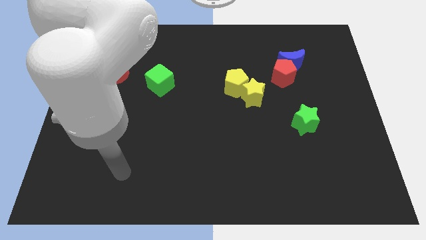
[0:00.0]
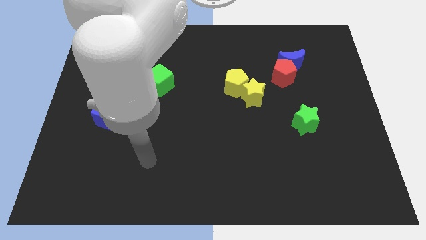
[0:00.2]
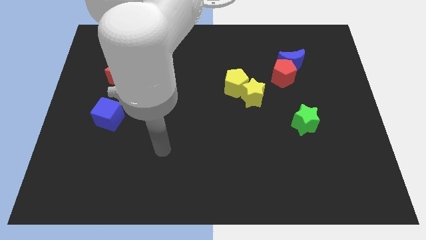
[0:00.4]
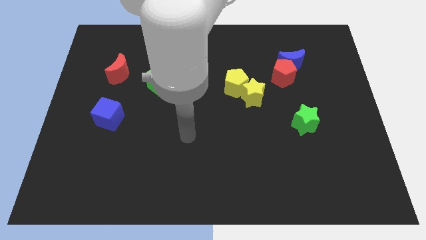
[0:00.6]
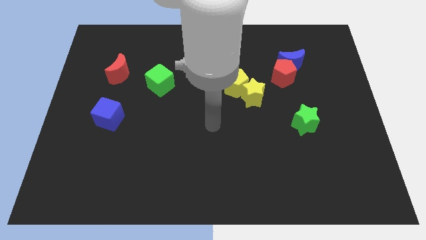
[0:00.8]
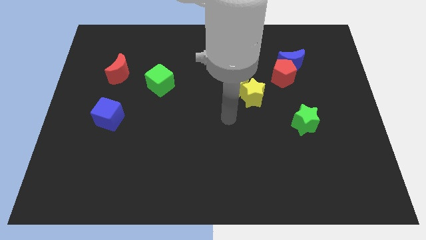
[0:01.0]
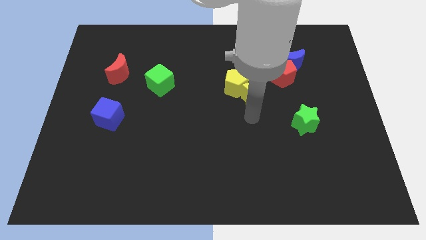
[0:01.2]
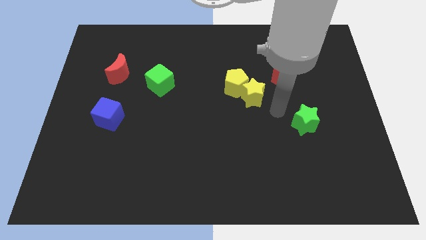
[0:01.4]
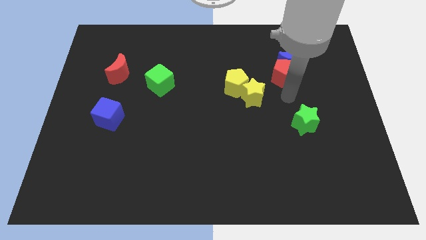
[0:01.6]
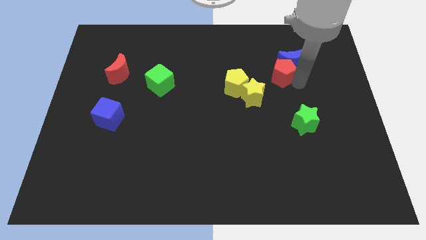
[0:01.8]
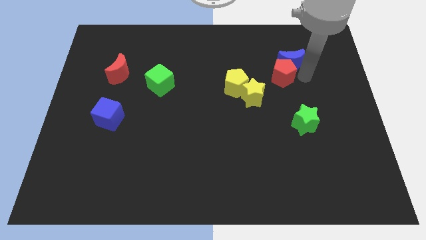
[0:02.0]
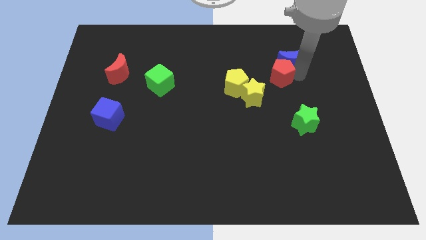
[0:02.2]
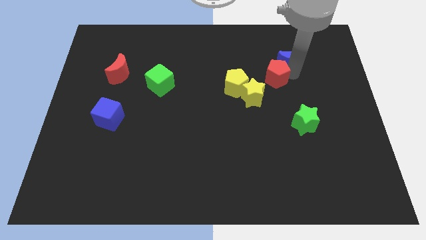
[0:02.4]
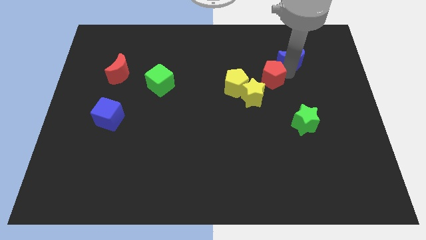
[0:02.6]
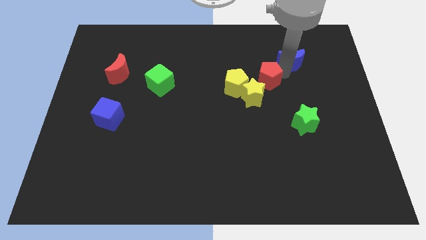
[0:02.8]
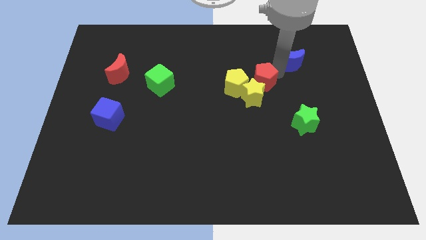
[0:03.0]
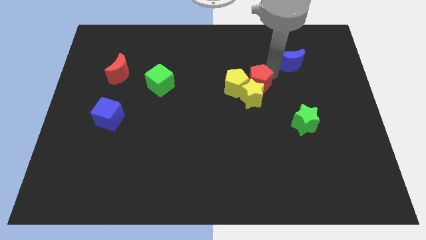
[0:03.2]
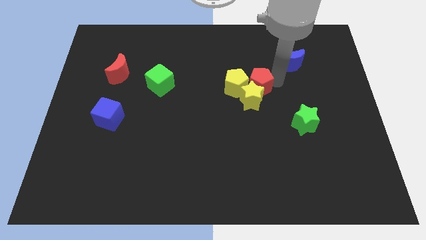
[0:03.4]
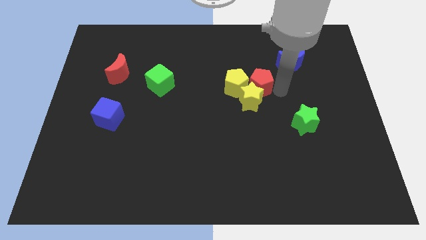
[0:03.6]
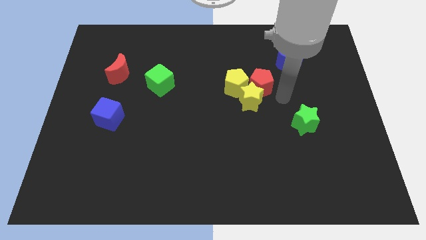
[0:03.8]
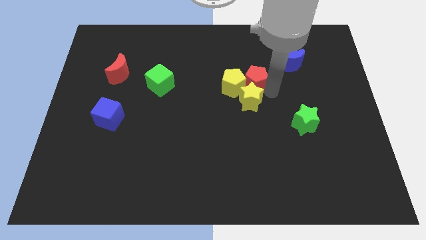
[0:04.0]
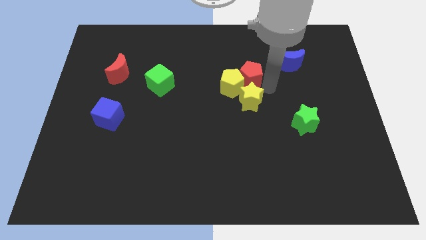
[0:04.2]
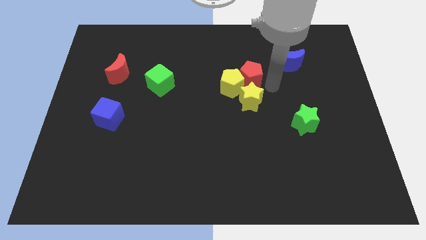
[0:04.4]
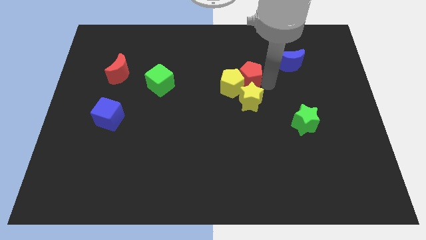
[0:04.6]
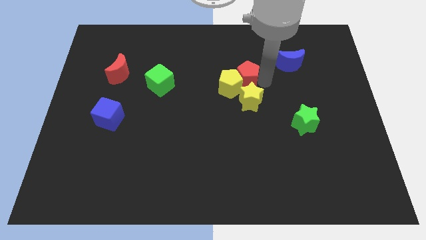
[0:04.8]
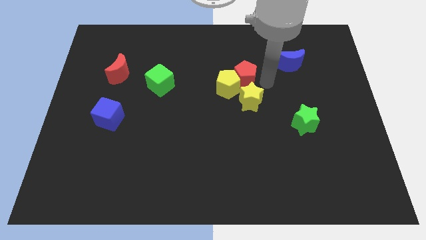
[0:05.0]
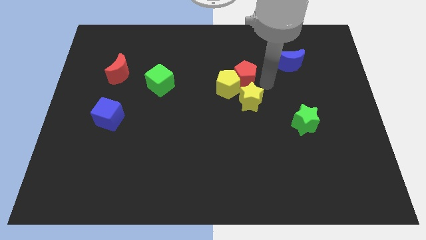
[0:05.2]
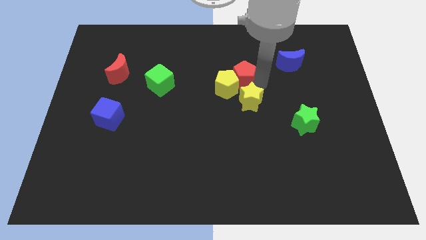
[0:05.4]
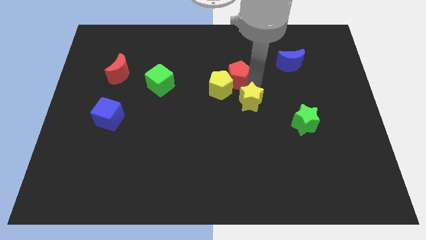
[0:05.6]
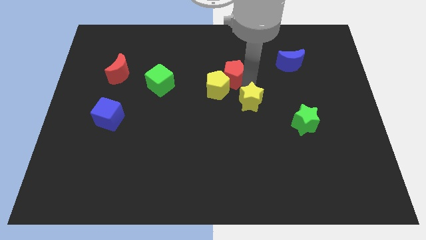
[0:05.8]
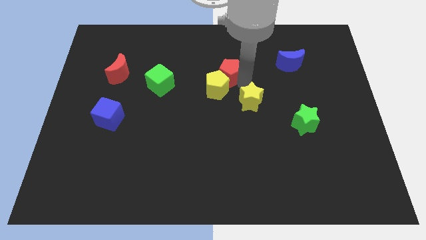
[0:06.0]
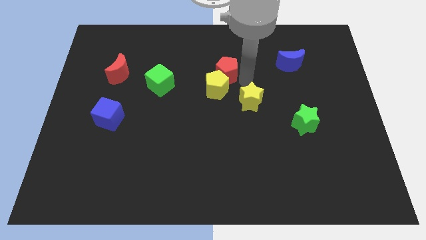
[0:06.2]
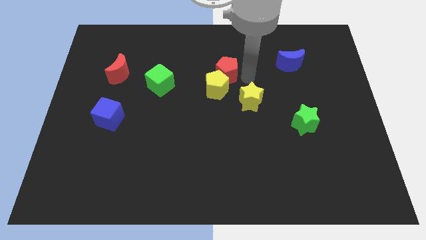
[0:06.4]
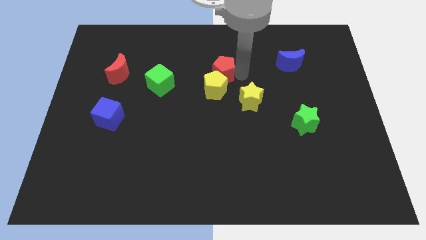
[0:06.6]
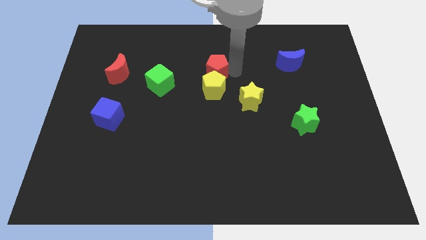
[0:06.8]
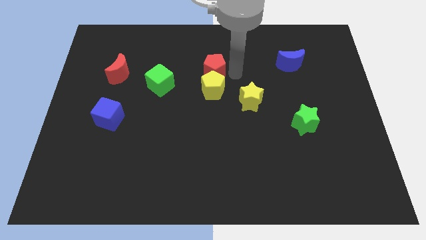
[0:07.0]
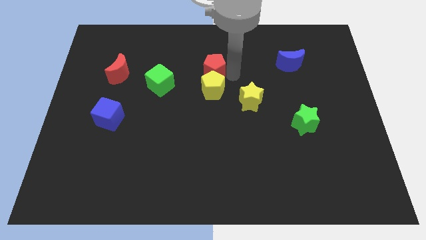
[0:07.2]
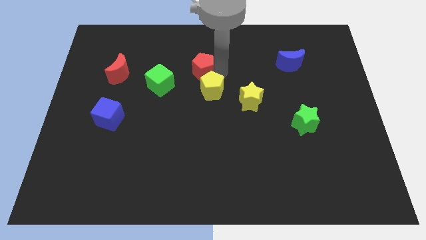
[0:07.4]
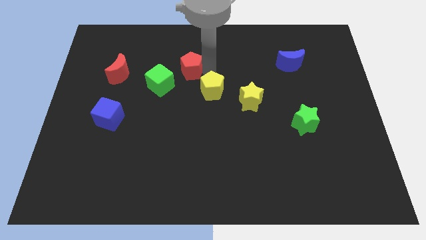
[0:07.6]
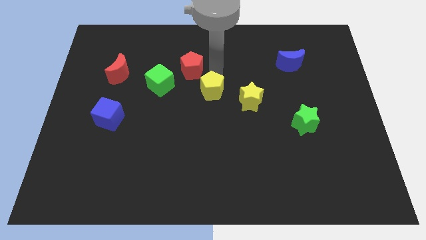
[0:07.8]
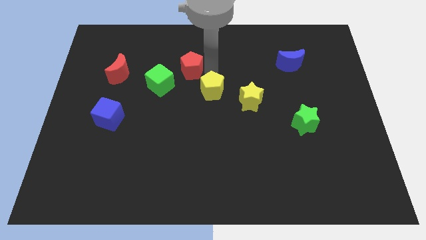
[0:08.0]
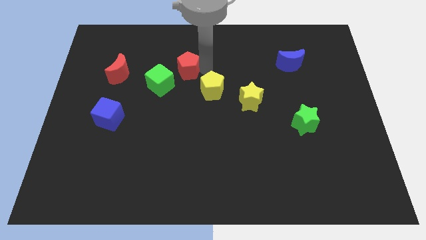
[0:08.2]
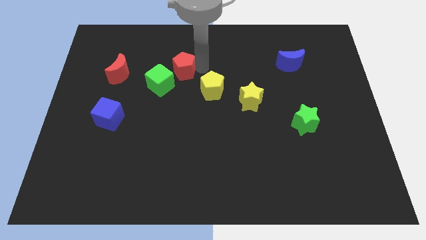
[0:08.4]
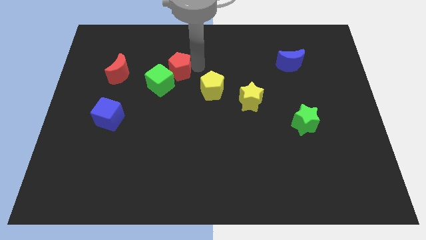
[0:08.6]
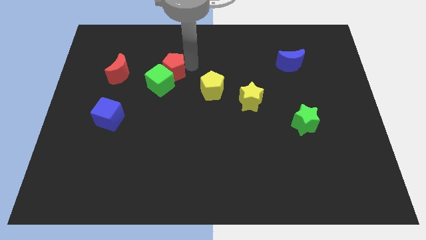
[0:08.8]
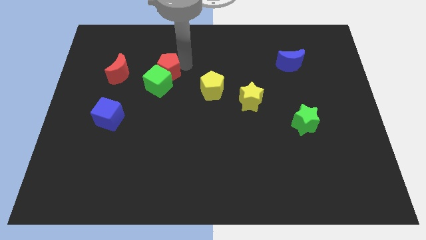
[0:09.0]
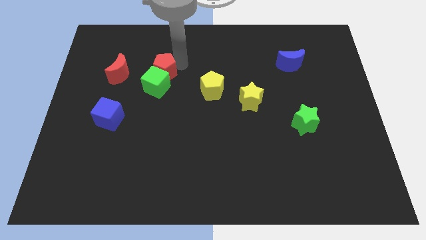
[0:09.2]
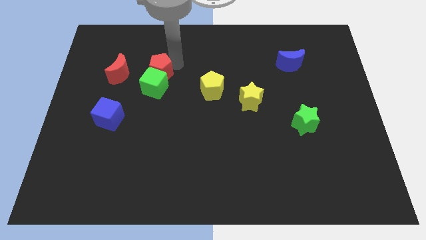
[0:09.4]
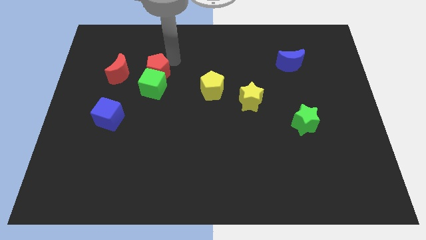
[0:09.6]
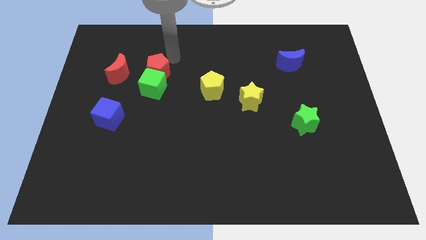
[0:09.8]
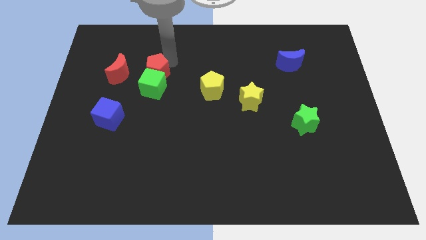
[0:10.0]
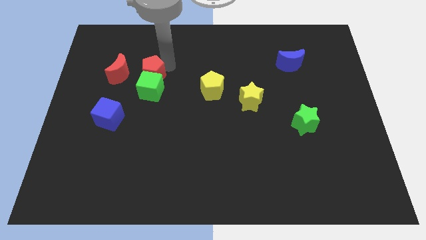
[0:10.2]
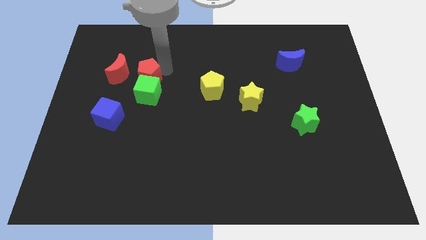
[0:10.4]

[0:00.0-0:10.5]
push the red pentagon diagonally down and to the right of the red moon

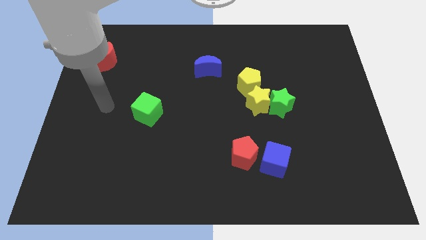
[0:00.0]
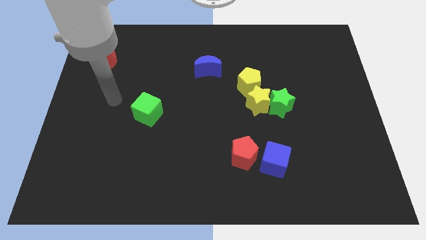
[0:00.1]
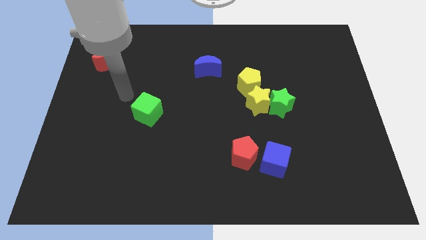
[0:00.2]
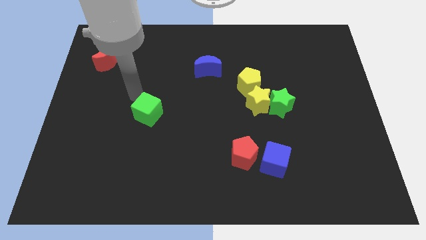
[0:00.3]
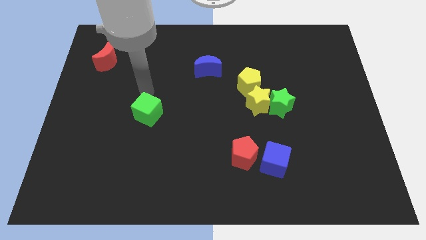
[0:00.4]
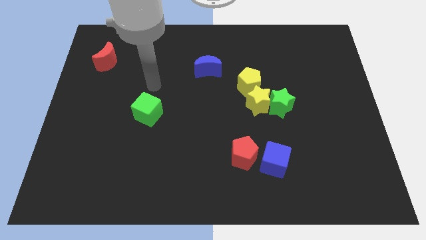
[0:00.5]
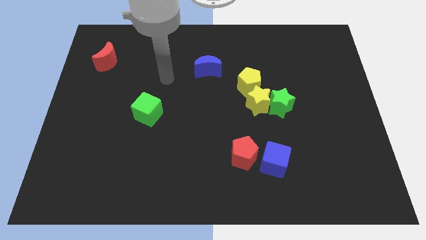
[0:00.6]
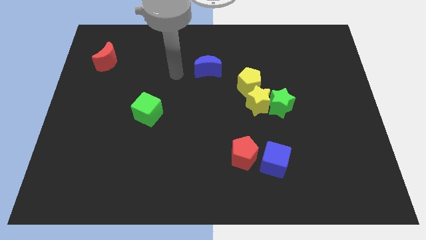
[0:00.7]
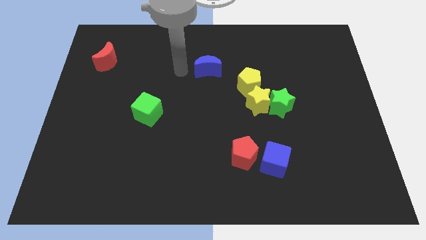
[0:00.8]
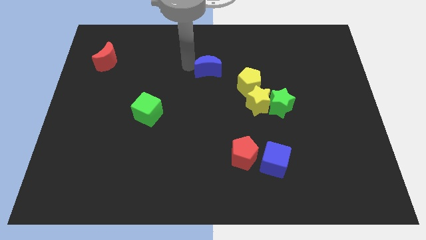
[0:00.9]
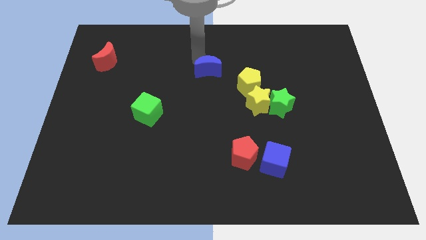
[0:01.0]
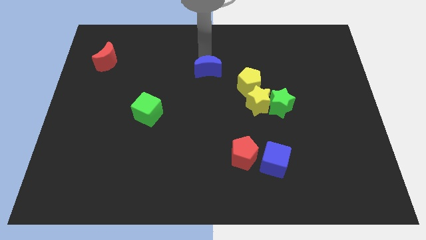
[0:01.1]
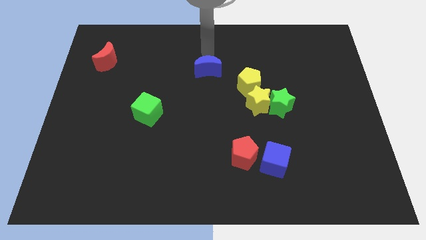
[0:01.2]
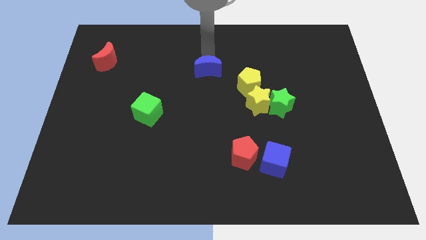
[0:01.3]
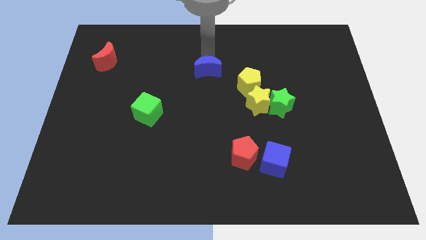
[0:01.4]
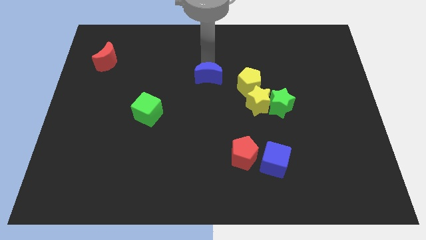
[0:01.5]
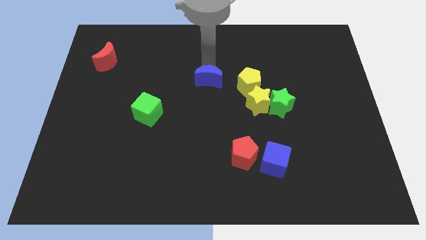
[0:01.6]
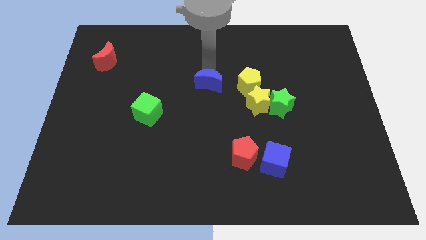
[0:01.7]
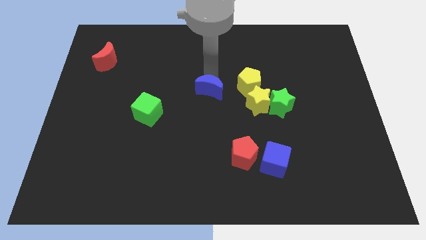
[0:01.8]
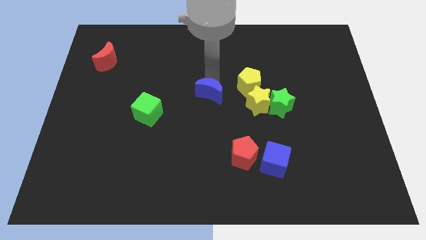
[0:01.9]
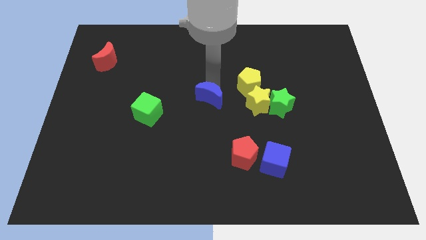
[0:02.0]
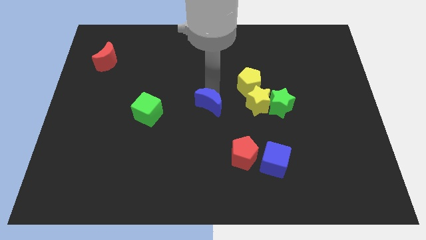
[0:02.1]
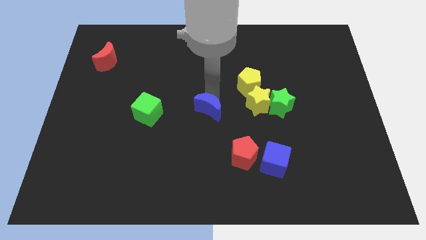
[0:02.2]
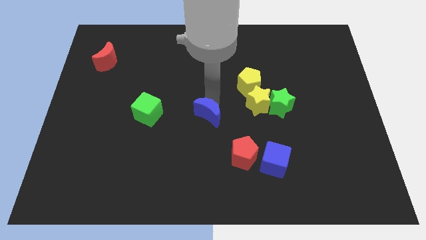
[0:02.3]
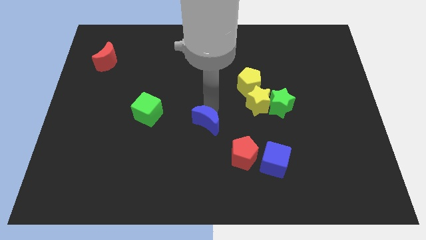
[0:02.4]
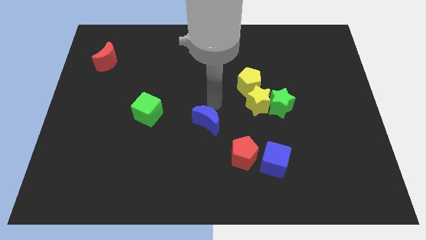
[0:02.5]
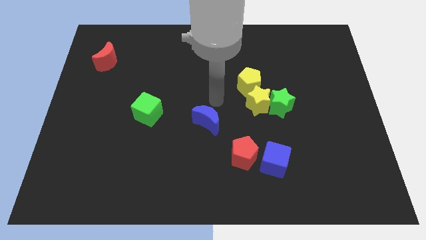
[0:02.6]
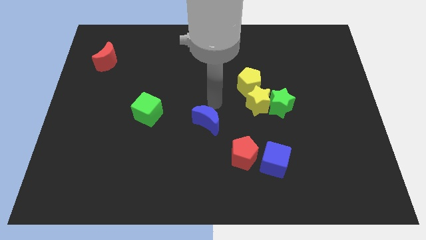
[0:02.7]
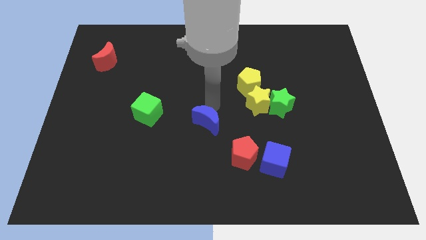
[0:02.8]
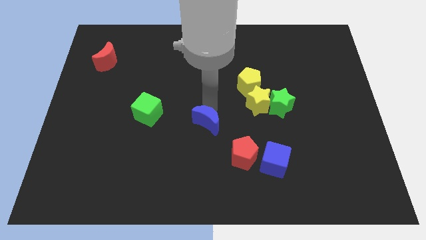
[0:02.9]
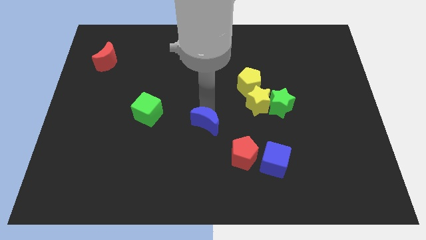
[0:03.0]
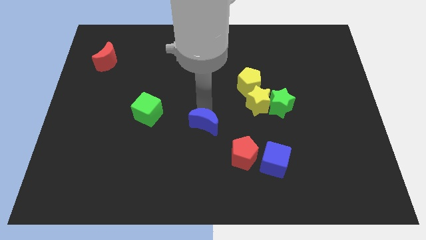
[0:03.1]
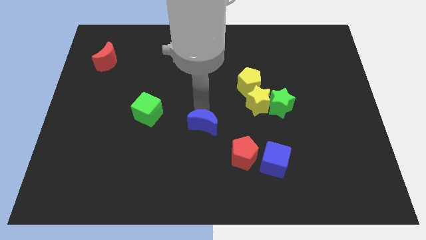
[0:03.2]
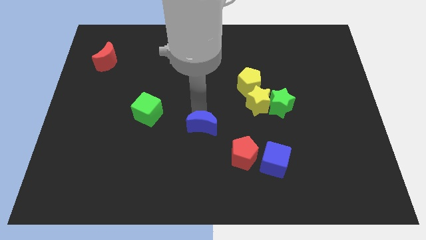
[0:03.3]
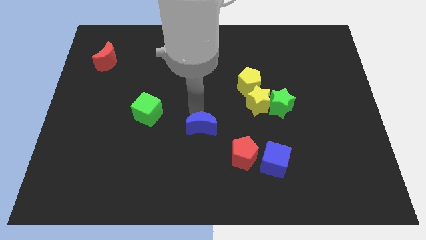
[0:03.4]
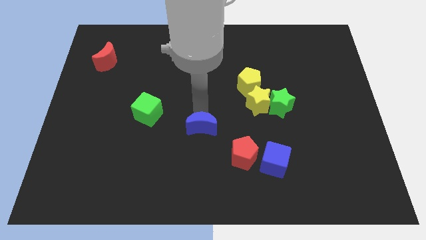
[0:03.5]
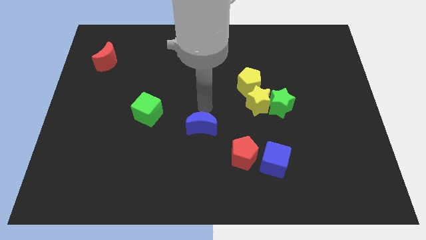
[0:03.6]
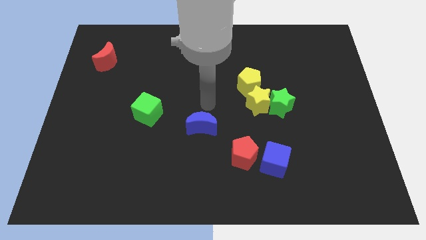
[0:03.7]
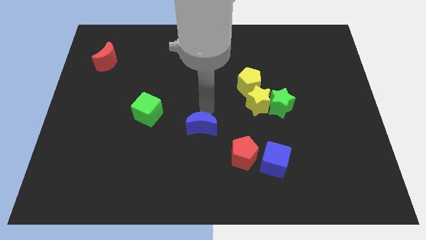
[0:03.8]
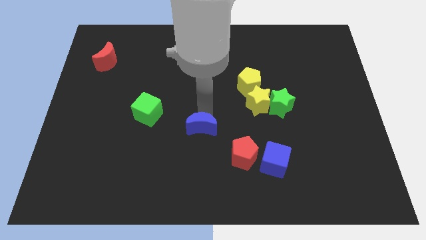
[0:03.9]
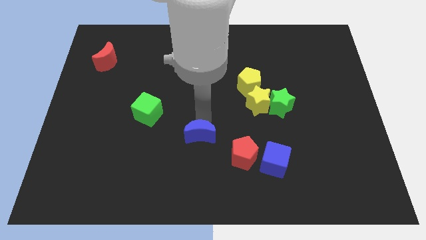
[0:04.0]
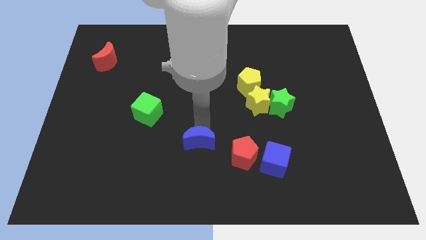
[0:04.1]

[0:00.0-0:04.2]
put the blue moon left of the red pentagon
